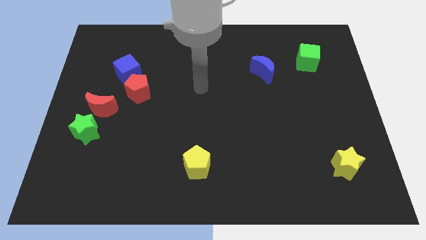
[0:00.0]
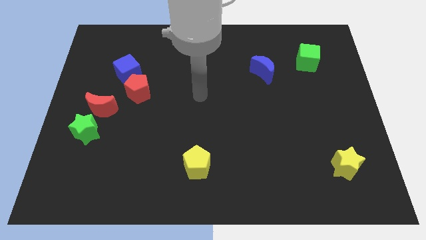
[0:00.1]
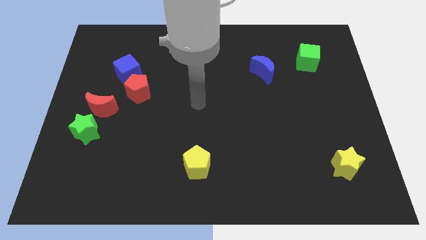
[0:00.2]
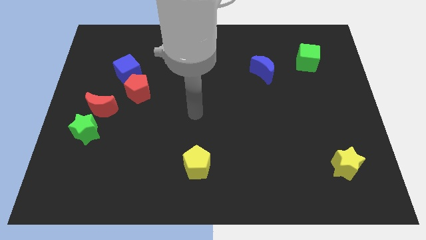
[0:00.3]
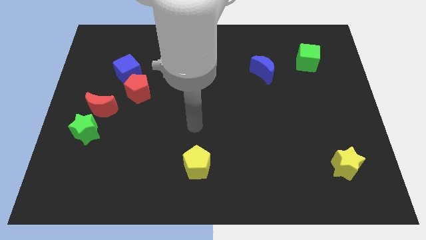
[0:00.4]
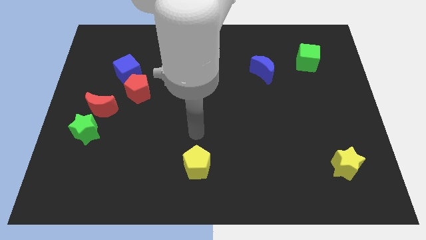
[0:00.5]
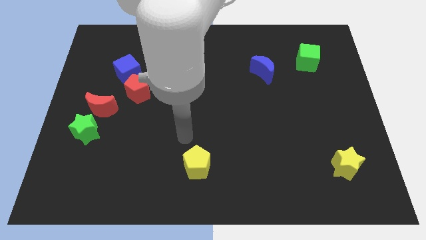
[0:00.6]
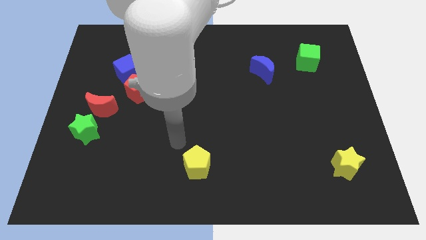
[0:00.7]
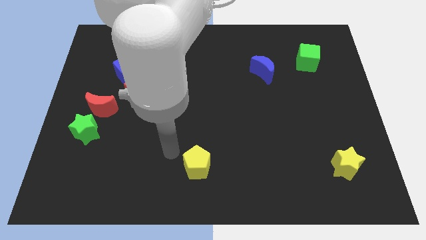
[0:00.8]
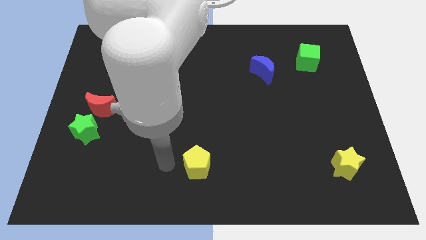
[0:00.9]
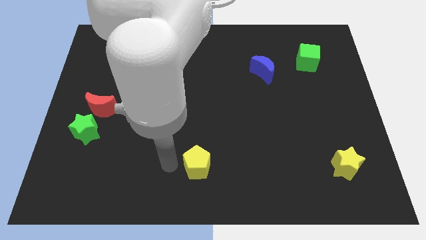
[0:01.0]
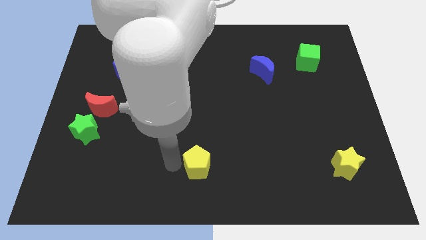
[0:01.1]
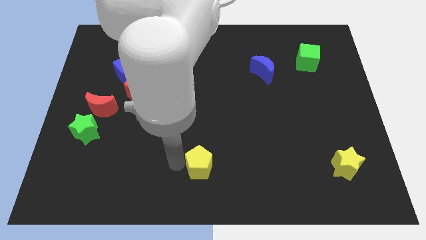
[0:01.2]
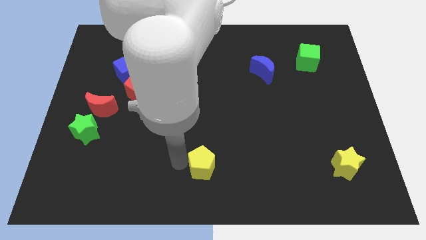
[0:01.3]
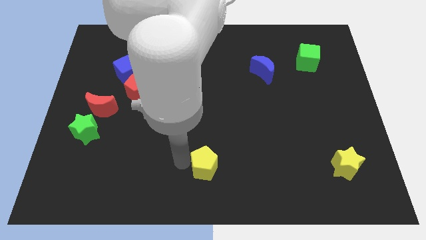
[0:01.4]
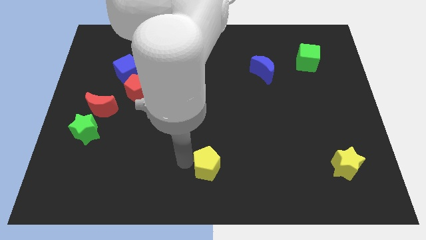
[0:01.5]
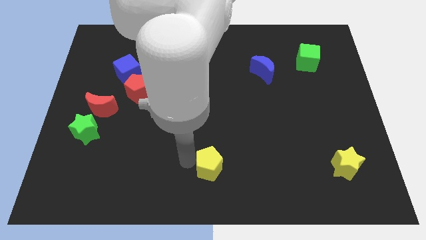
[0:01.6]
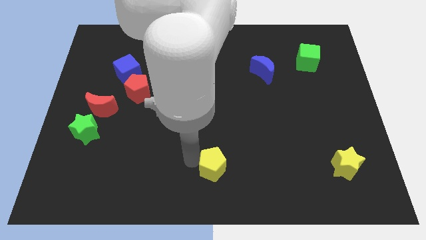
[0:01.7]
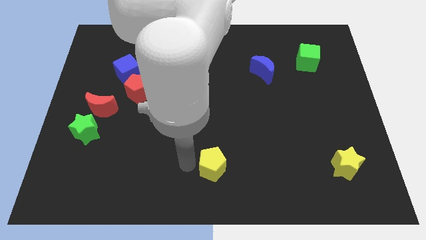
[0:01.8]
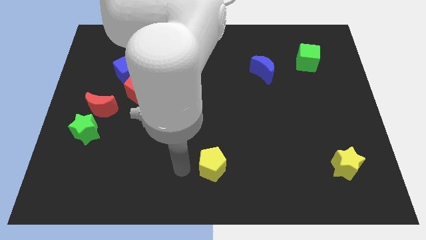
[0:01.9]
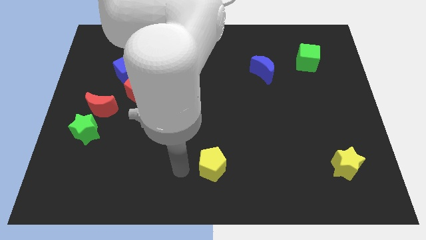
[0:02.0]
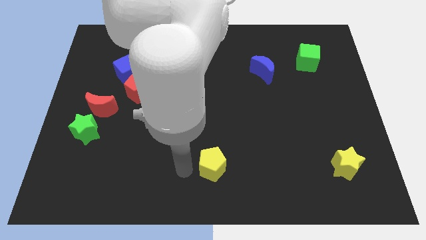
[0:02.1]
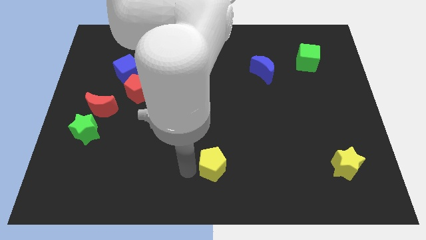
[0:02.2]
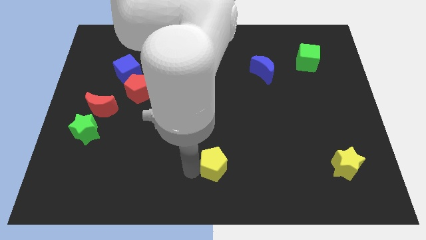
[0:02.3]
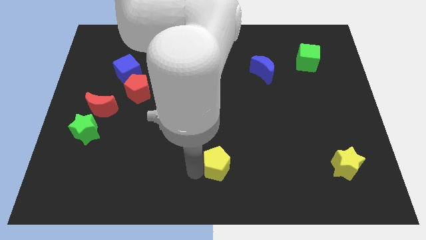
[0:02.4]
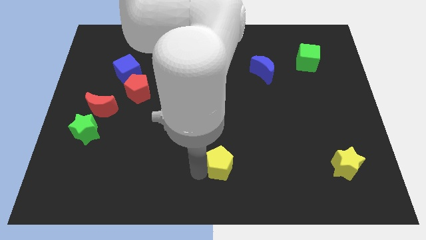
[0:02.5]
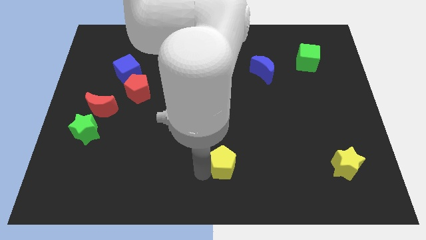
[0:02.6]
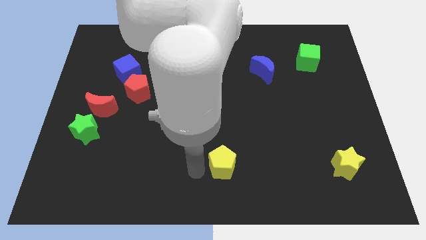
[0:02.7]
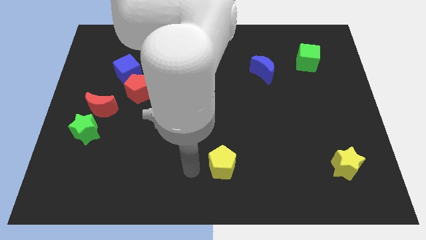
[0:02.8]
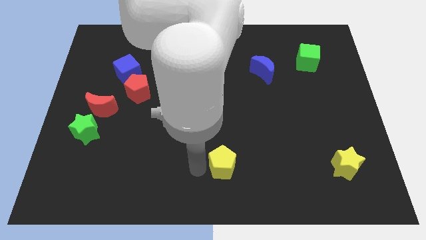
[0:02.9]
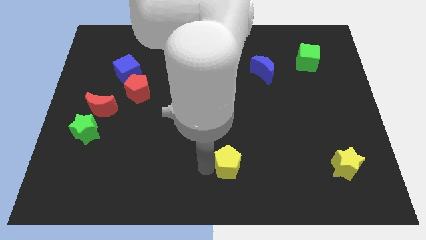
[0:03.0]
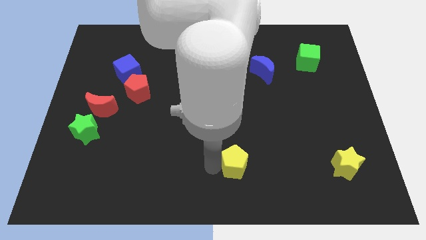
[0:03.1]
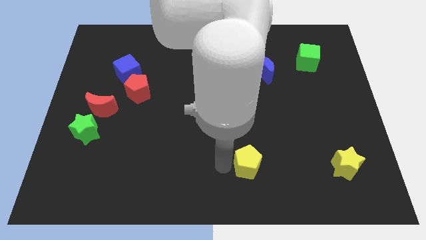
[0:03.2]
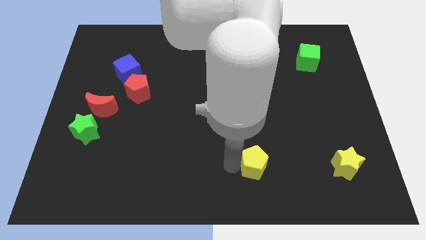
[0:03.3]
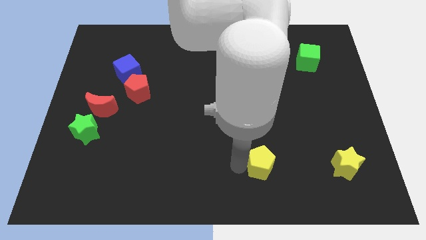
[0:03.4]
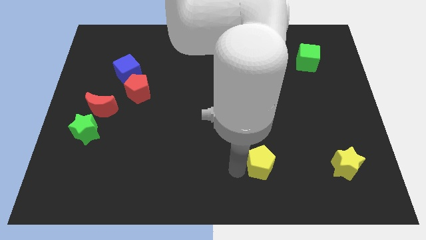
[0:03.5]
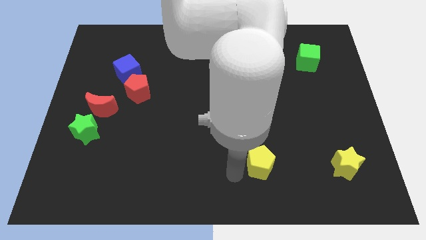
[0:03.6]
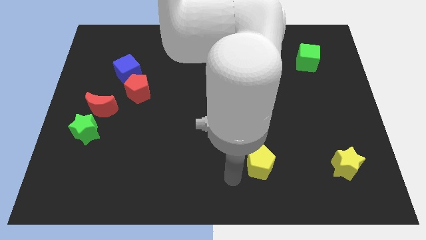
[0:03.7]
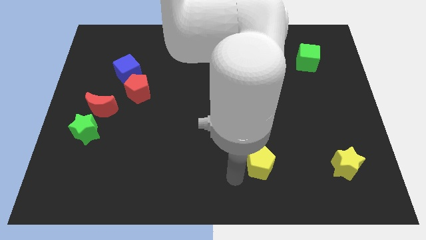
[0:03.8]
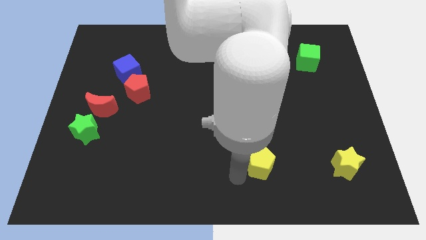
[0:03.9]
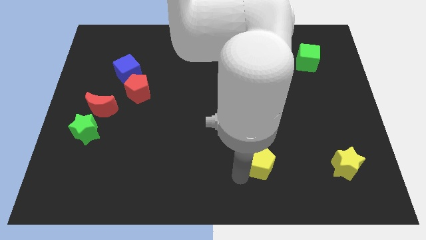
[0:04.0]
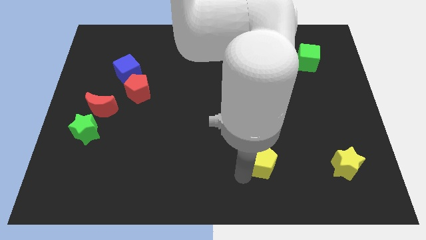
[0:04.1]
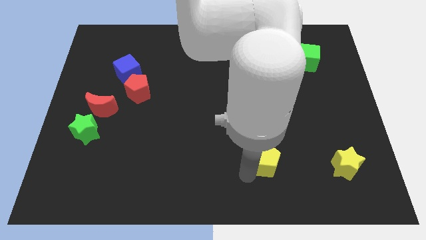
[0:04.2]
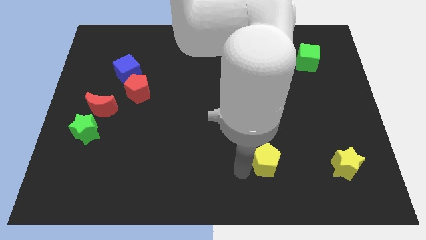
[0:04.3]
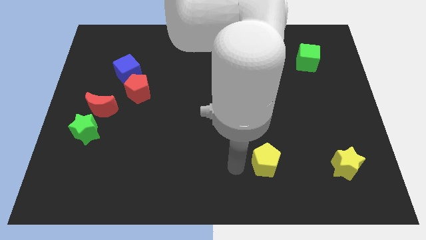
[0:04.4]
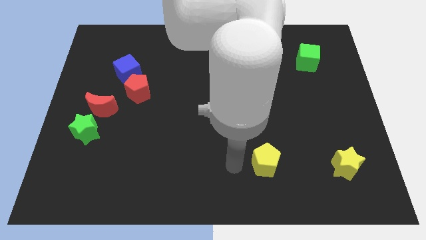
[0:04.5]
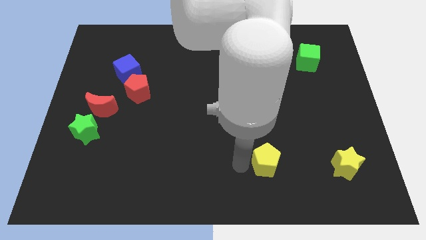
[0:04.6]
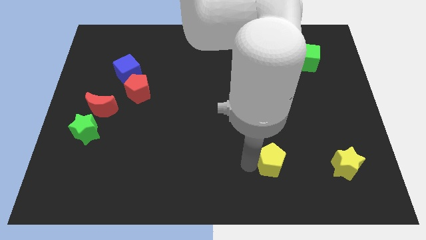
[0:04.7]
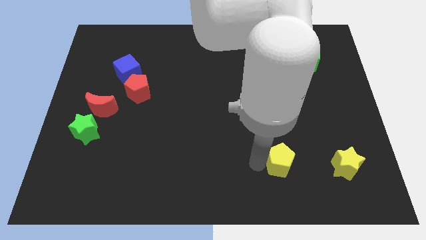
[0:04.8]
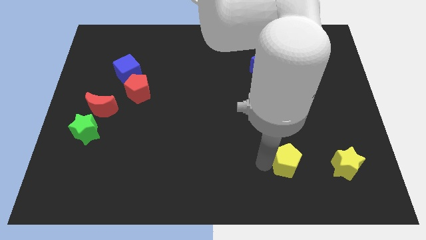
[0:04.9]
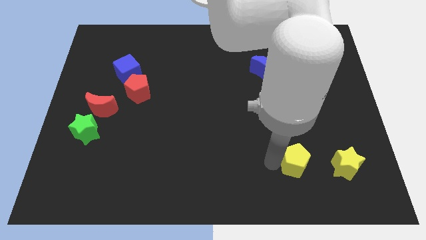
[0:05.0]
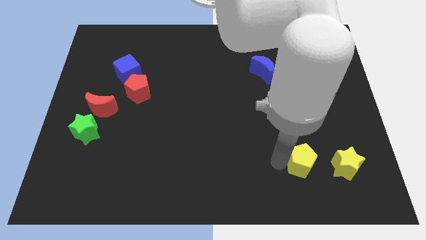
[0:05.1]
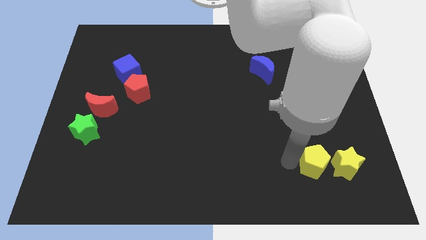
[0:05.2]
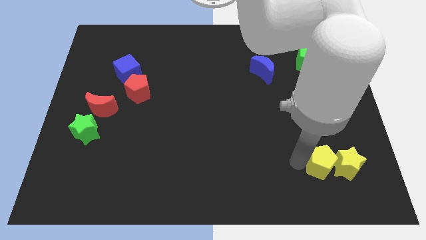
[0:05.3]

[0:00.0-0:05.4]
push the yellow pentagon towards the yellow star

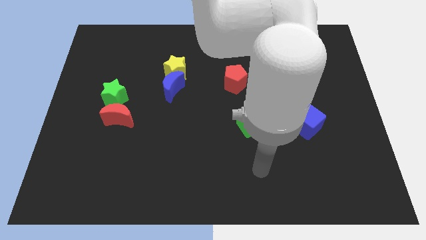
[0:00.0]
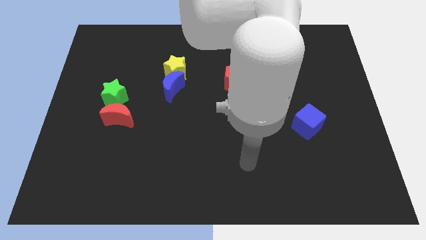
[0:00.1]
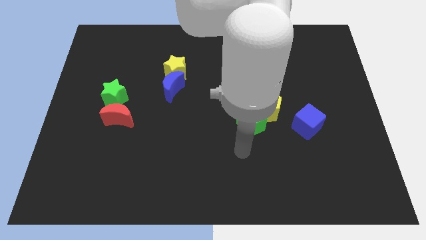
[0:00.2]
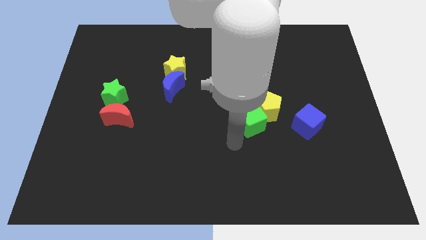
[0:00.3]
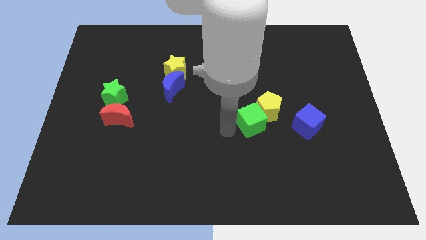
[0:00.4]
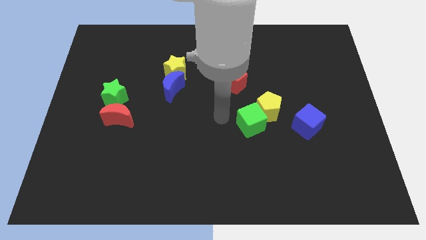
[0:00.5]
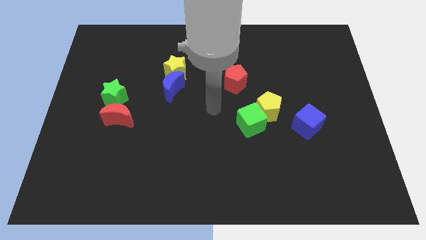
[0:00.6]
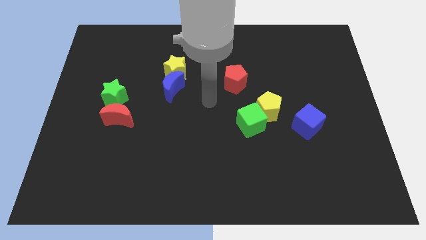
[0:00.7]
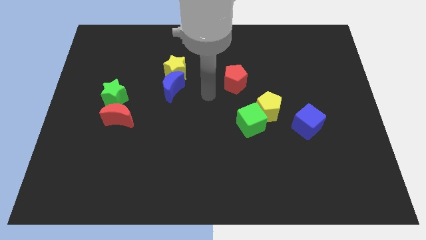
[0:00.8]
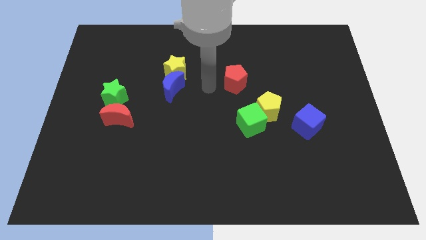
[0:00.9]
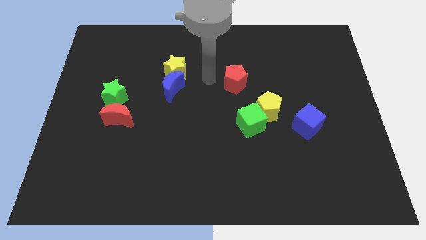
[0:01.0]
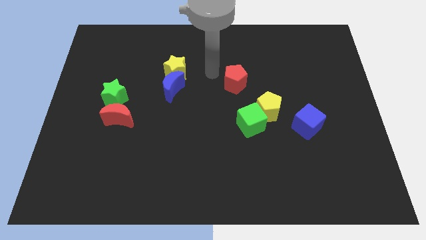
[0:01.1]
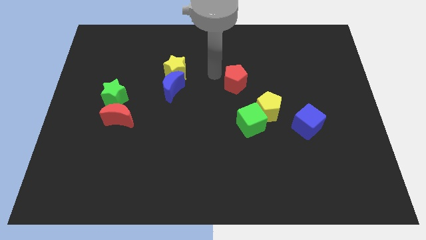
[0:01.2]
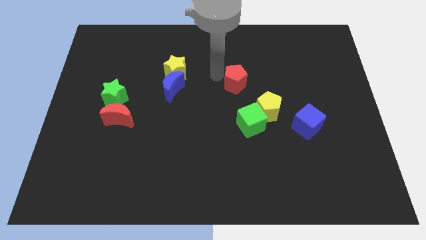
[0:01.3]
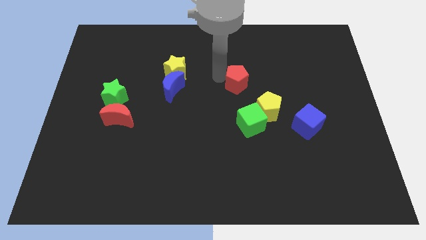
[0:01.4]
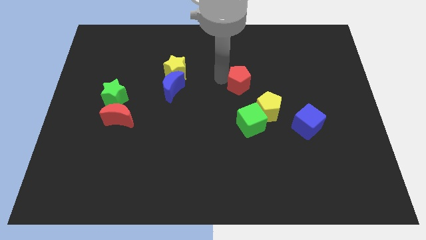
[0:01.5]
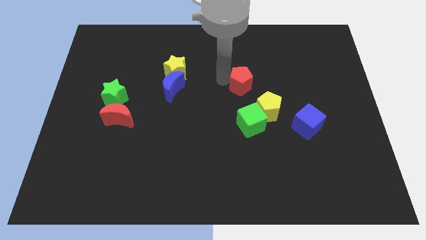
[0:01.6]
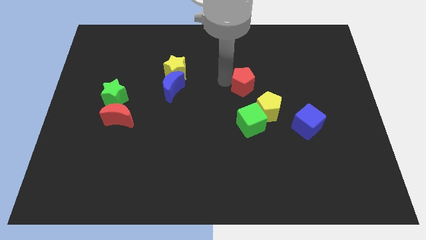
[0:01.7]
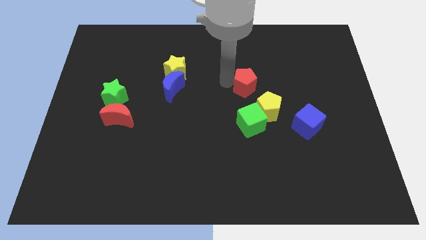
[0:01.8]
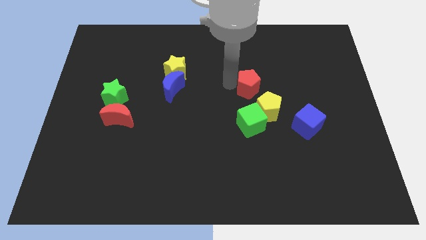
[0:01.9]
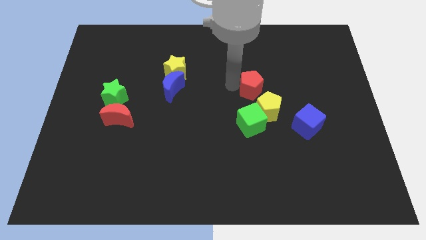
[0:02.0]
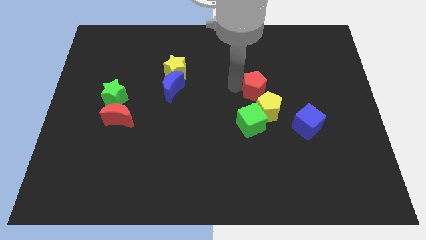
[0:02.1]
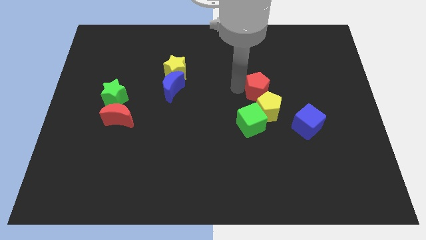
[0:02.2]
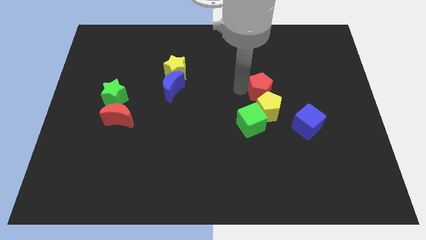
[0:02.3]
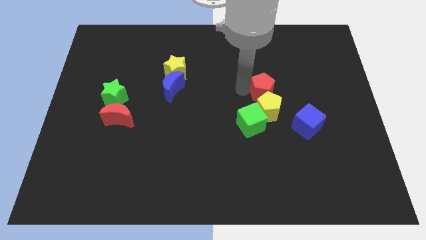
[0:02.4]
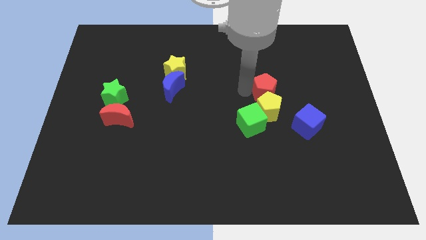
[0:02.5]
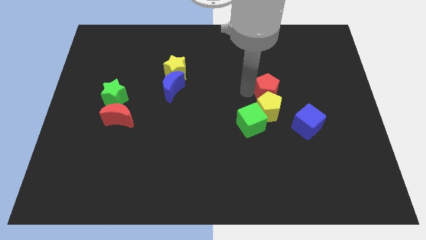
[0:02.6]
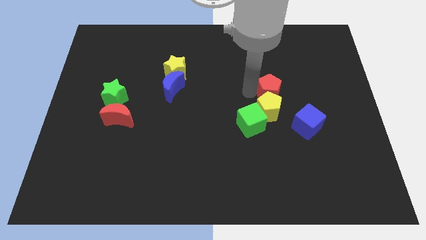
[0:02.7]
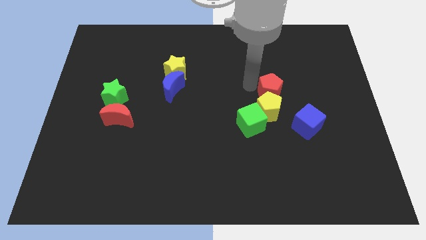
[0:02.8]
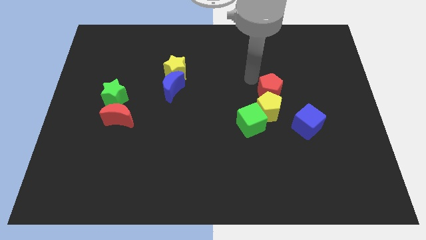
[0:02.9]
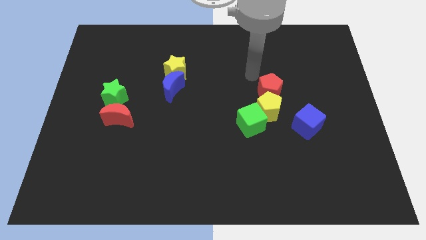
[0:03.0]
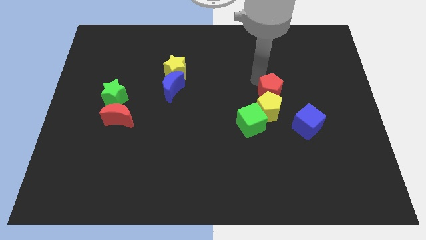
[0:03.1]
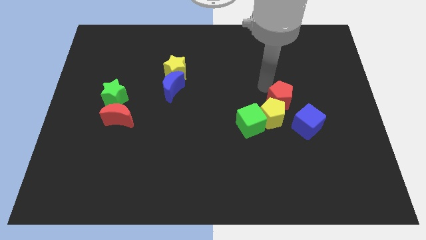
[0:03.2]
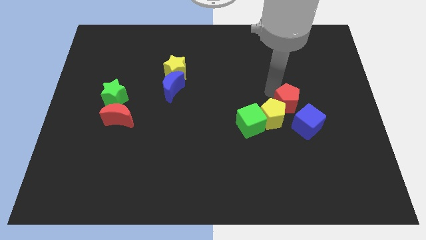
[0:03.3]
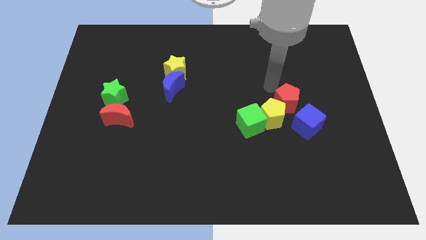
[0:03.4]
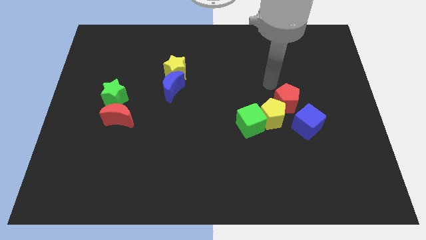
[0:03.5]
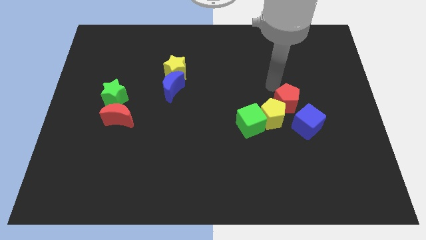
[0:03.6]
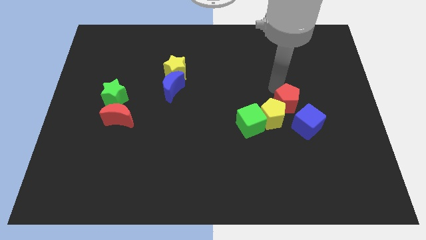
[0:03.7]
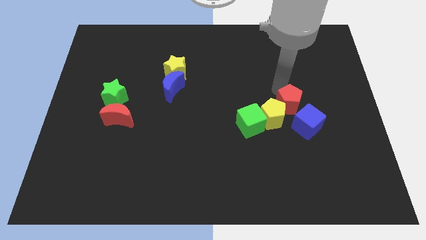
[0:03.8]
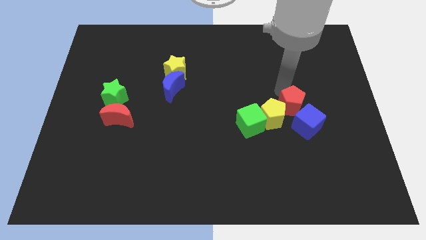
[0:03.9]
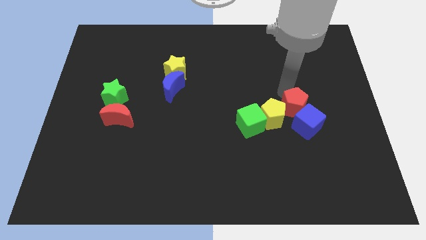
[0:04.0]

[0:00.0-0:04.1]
move the red pentagon close to the blue cube
